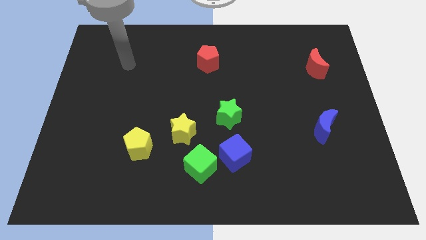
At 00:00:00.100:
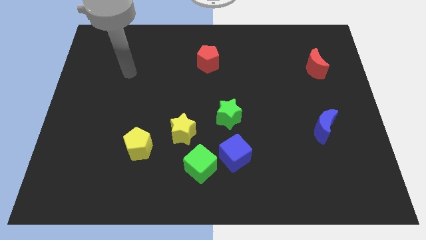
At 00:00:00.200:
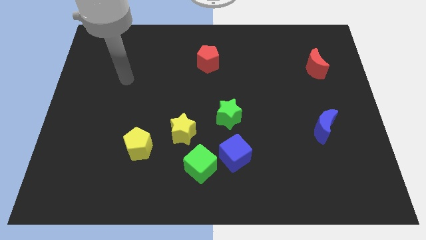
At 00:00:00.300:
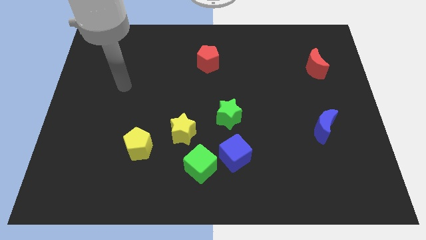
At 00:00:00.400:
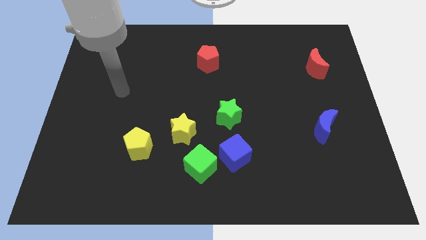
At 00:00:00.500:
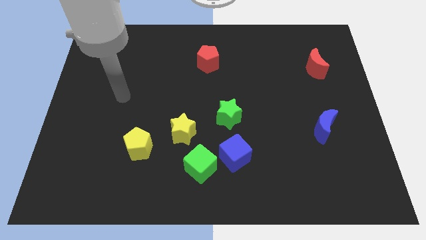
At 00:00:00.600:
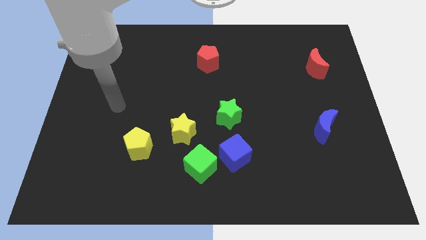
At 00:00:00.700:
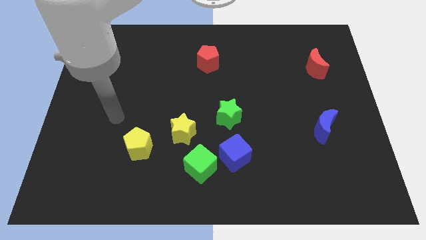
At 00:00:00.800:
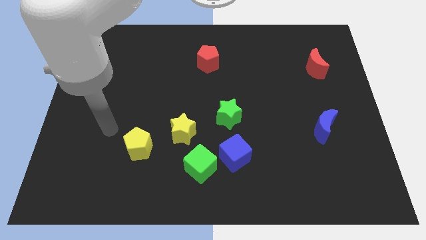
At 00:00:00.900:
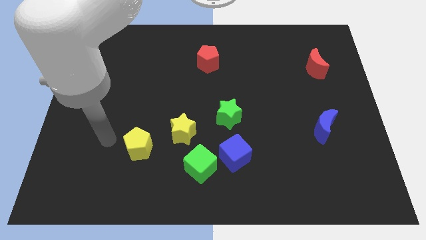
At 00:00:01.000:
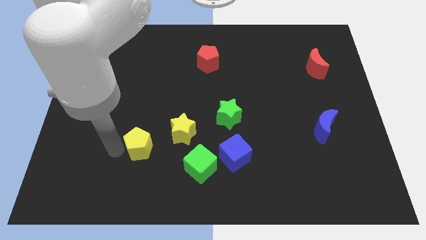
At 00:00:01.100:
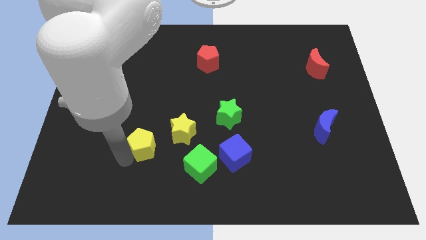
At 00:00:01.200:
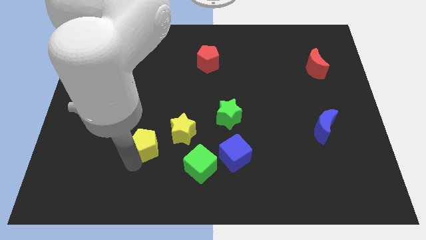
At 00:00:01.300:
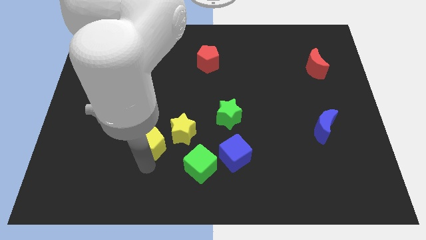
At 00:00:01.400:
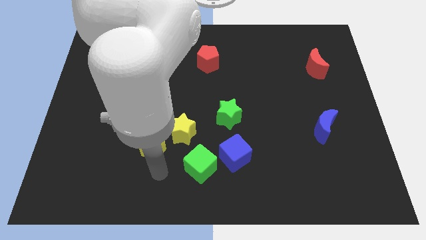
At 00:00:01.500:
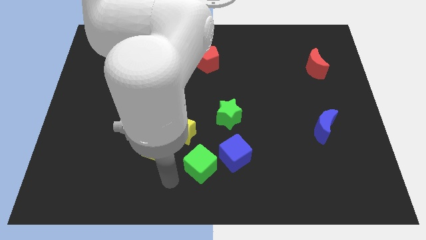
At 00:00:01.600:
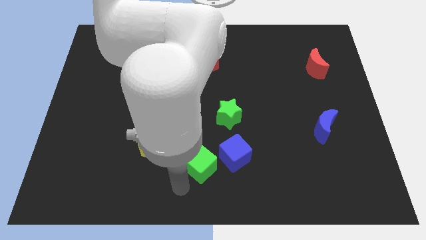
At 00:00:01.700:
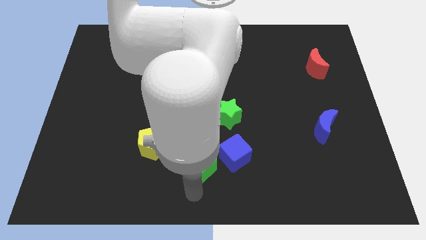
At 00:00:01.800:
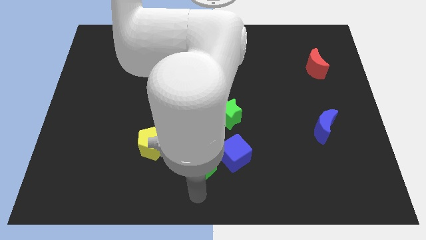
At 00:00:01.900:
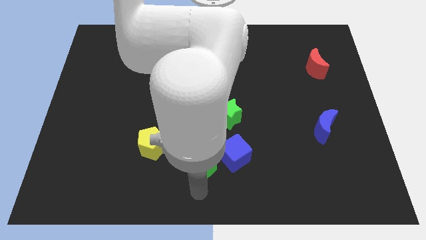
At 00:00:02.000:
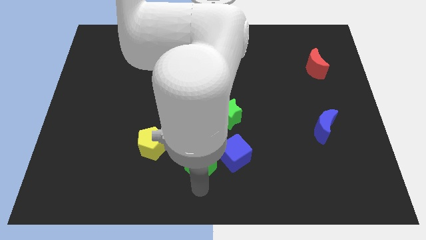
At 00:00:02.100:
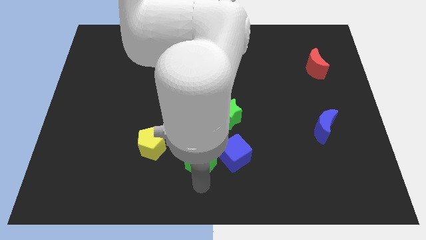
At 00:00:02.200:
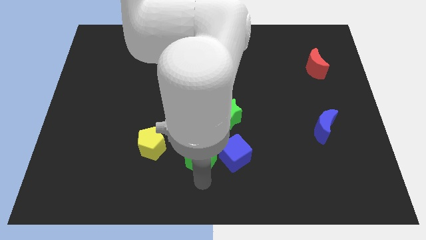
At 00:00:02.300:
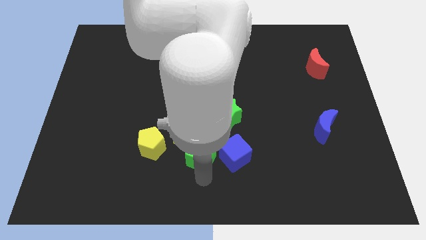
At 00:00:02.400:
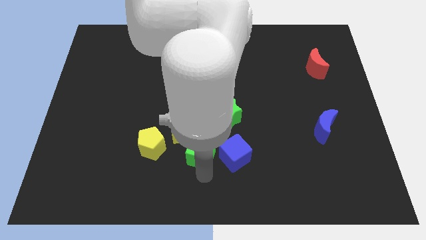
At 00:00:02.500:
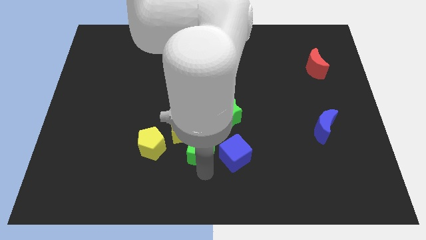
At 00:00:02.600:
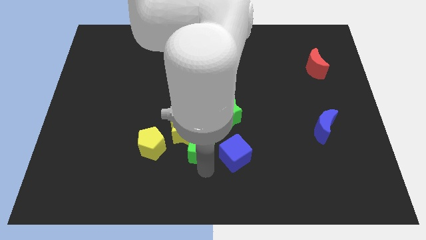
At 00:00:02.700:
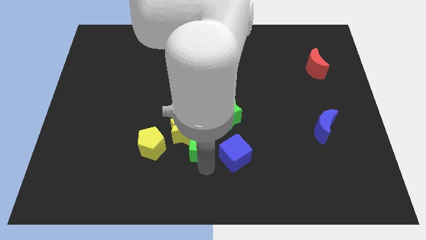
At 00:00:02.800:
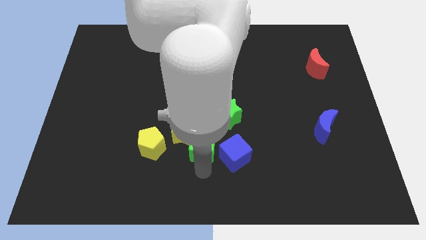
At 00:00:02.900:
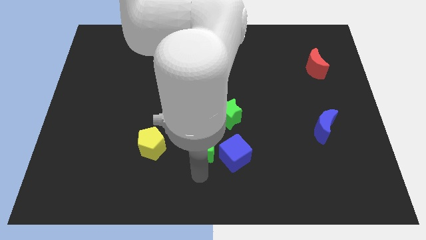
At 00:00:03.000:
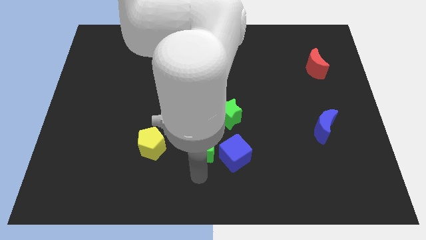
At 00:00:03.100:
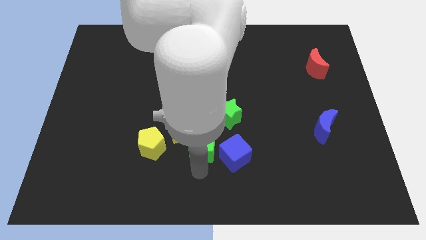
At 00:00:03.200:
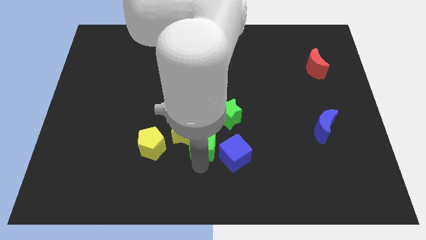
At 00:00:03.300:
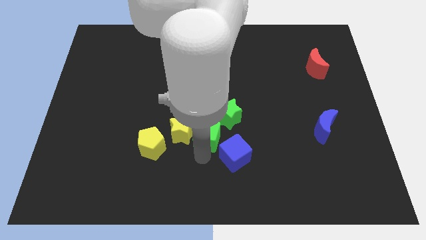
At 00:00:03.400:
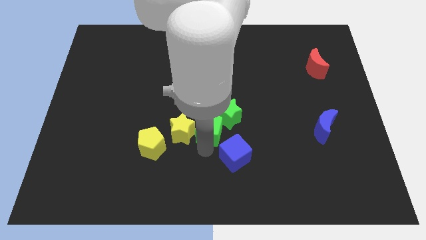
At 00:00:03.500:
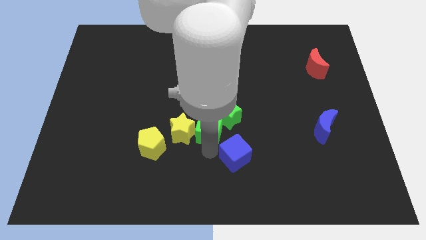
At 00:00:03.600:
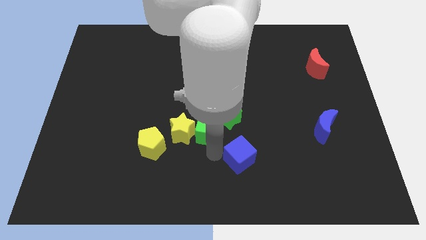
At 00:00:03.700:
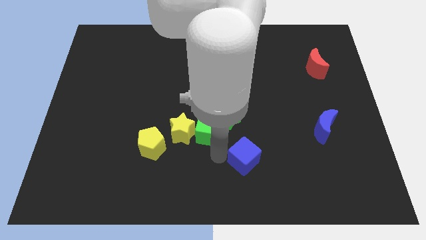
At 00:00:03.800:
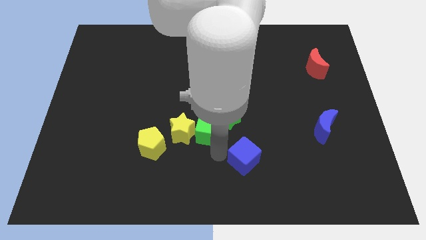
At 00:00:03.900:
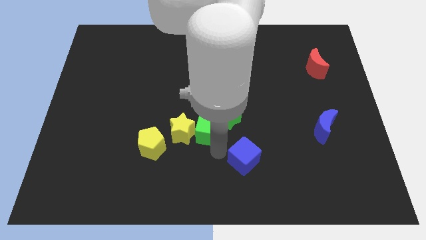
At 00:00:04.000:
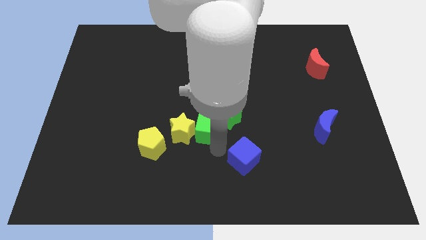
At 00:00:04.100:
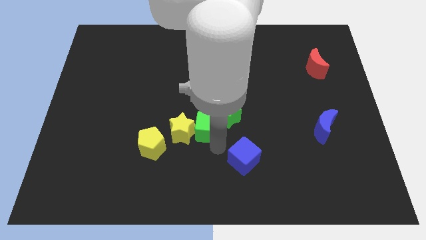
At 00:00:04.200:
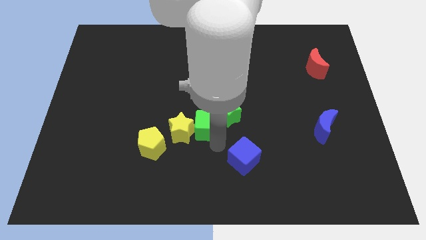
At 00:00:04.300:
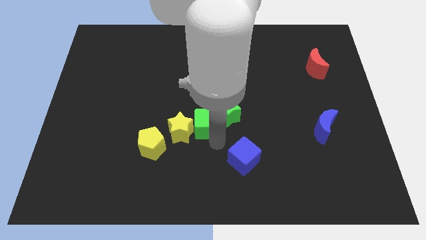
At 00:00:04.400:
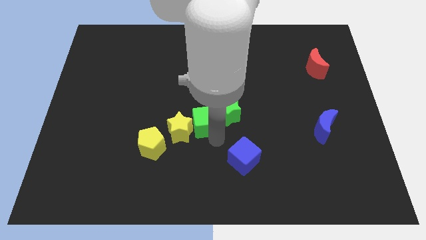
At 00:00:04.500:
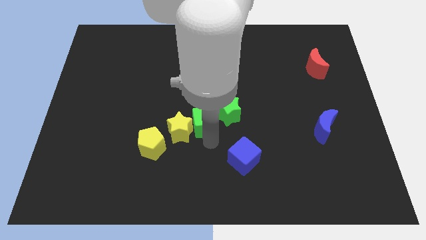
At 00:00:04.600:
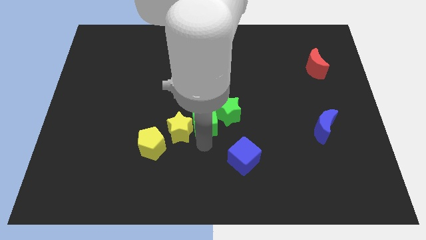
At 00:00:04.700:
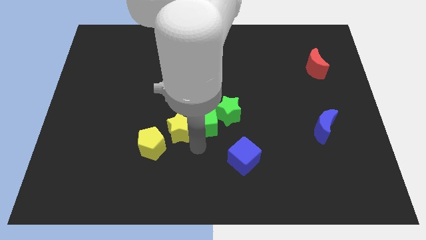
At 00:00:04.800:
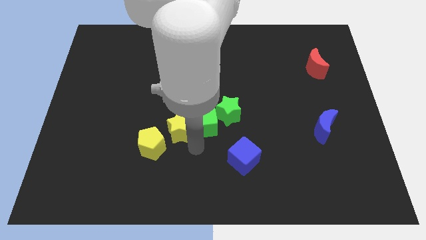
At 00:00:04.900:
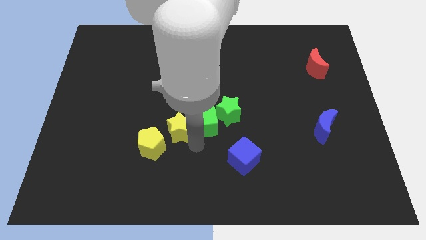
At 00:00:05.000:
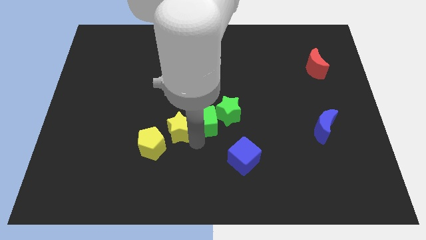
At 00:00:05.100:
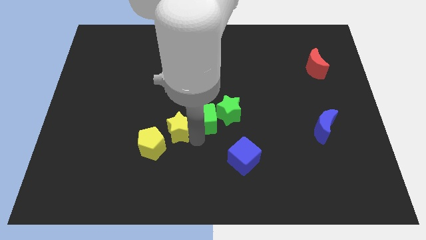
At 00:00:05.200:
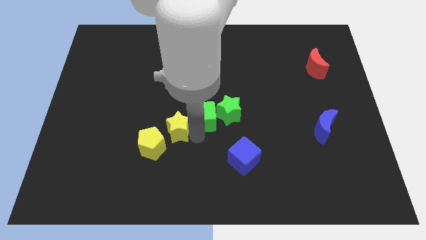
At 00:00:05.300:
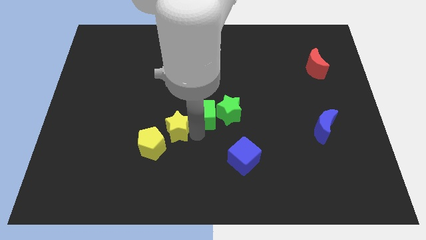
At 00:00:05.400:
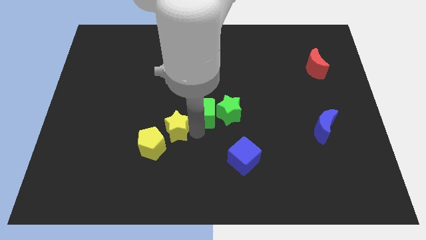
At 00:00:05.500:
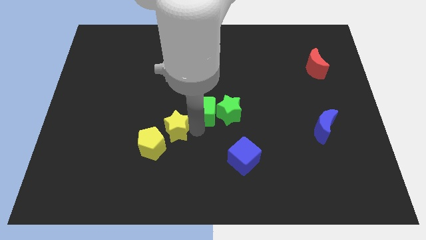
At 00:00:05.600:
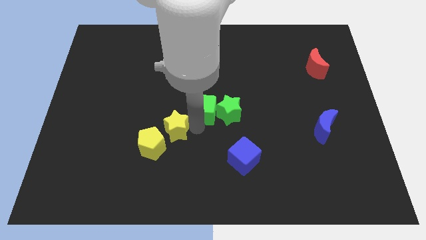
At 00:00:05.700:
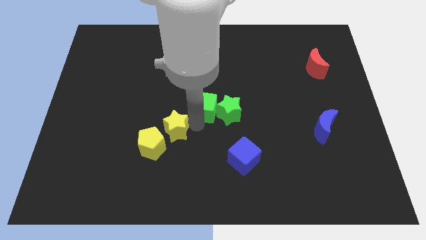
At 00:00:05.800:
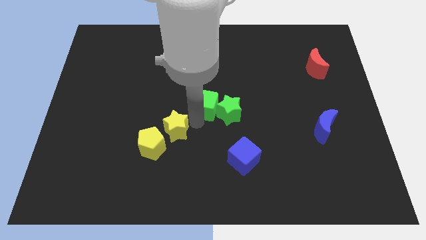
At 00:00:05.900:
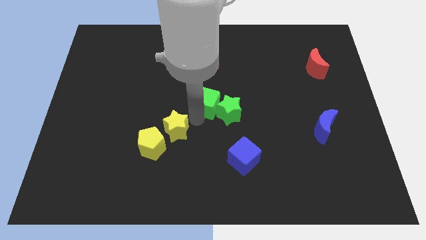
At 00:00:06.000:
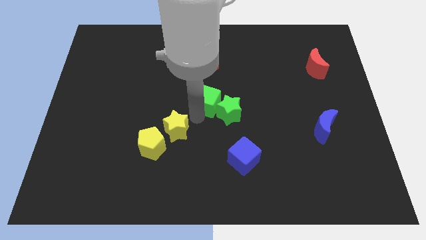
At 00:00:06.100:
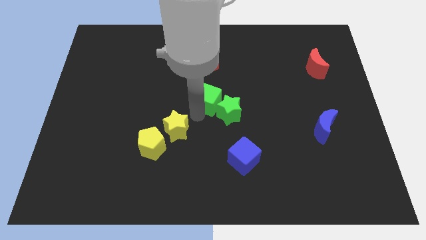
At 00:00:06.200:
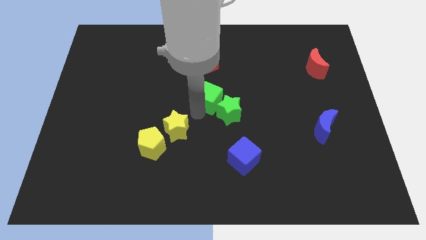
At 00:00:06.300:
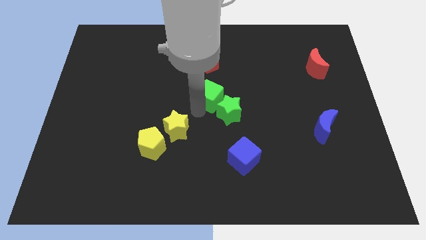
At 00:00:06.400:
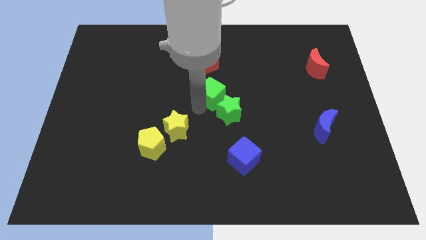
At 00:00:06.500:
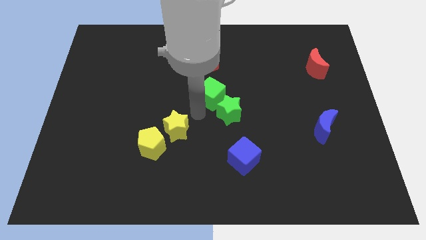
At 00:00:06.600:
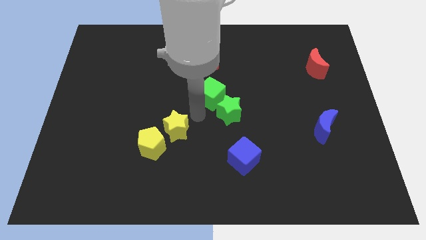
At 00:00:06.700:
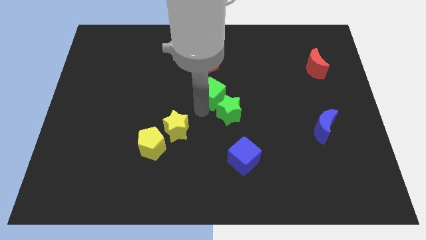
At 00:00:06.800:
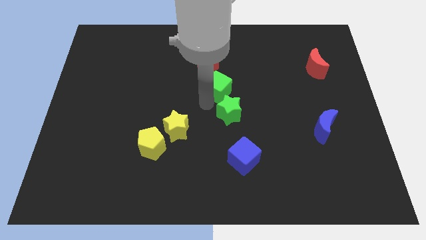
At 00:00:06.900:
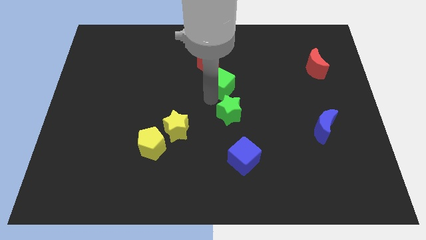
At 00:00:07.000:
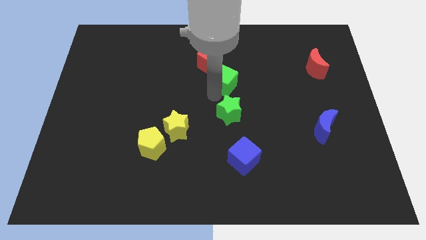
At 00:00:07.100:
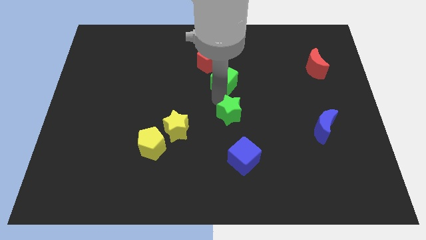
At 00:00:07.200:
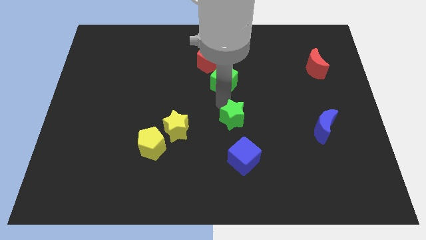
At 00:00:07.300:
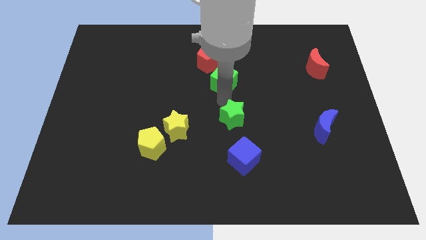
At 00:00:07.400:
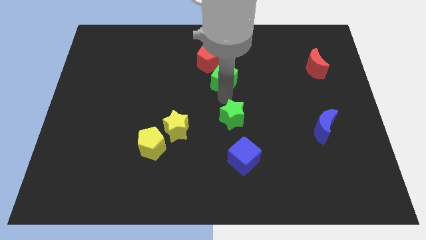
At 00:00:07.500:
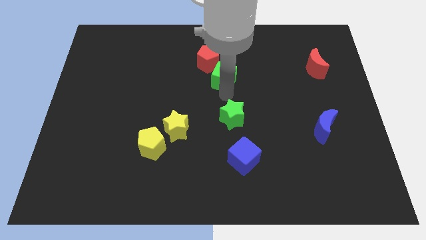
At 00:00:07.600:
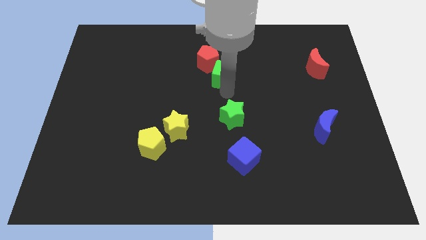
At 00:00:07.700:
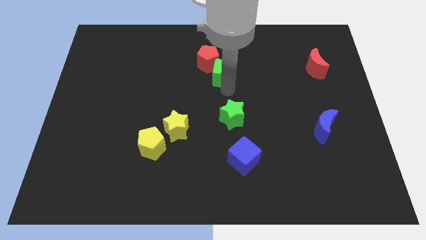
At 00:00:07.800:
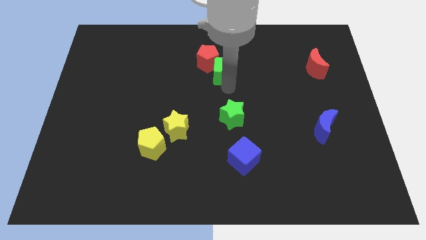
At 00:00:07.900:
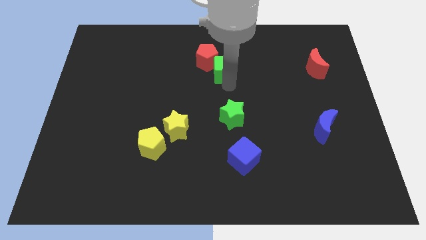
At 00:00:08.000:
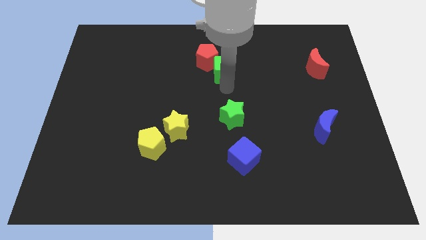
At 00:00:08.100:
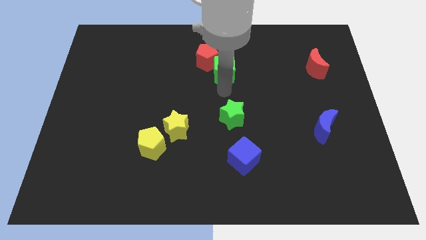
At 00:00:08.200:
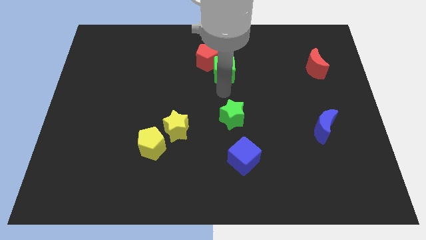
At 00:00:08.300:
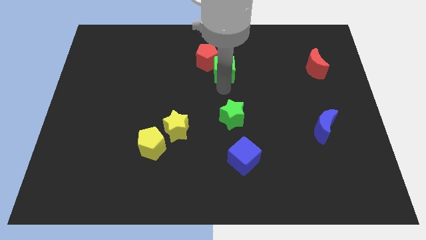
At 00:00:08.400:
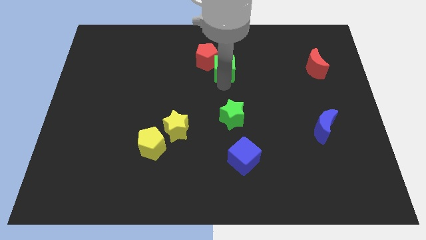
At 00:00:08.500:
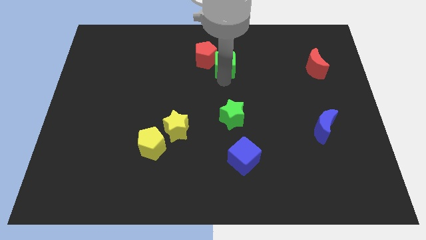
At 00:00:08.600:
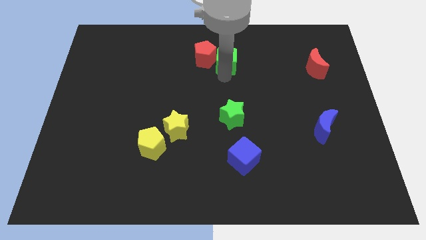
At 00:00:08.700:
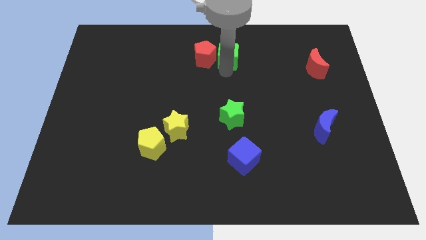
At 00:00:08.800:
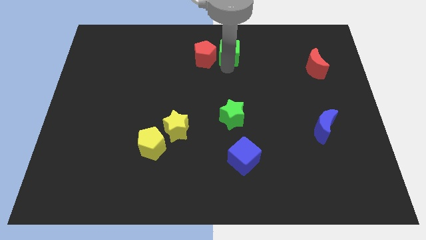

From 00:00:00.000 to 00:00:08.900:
move the green cube to the towards your base
